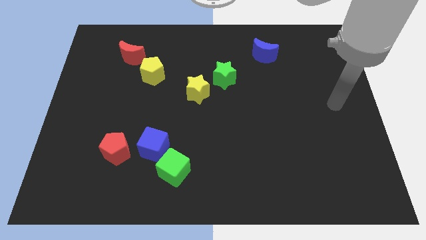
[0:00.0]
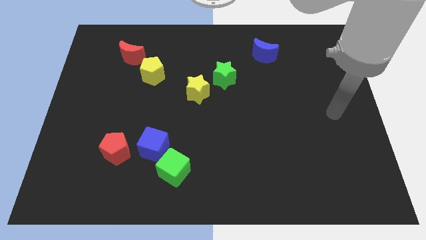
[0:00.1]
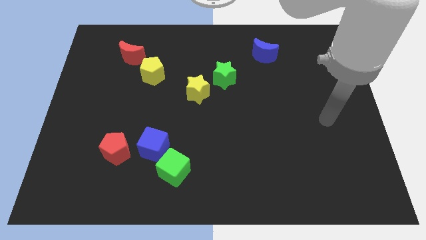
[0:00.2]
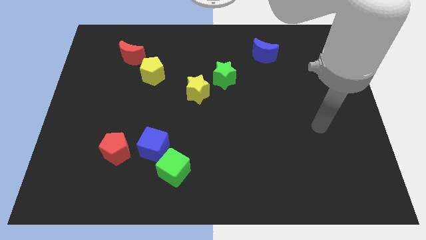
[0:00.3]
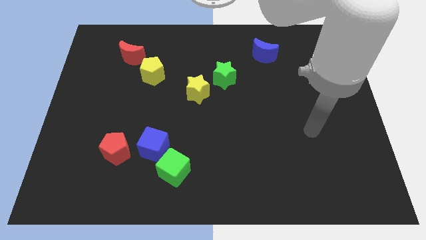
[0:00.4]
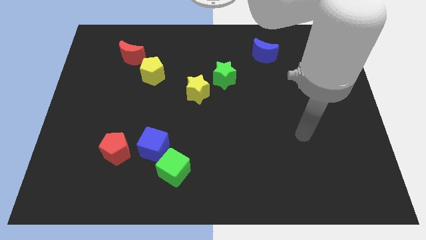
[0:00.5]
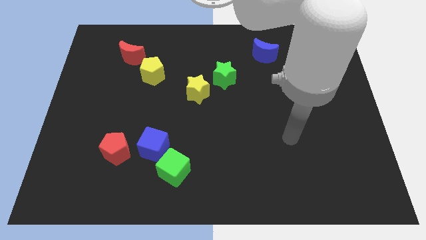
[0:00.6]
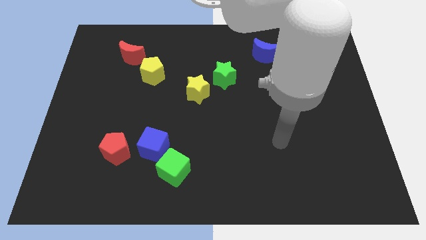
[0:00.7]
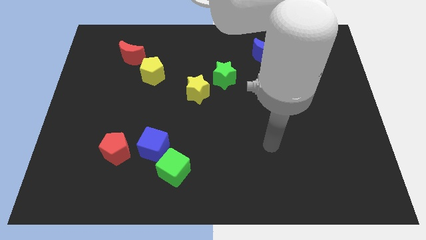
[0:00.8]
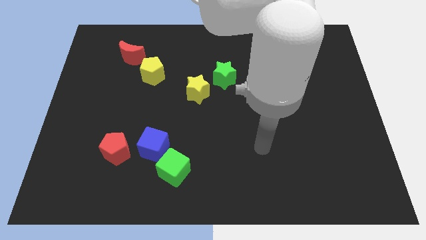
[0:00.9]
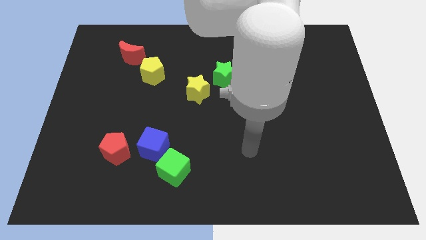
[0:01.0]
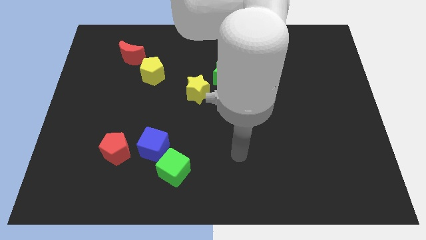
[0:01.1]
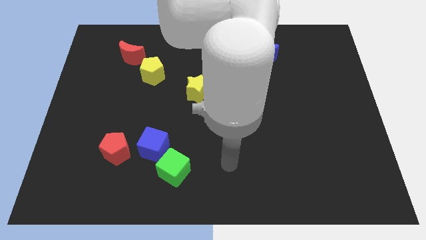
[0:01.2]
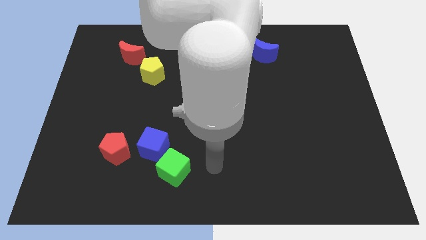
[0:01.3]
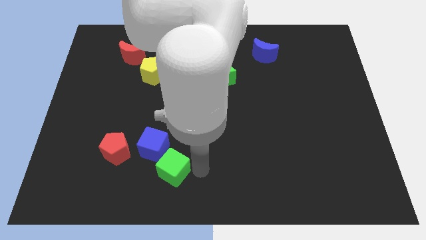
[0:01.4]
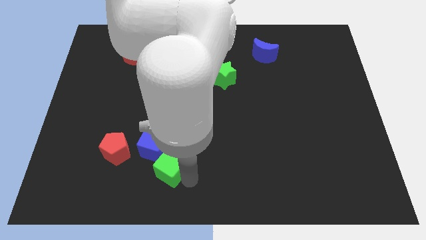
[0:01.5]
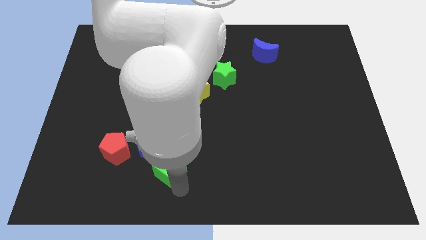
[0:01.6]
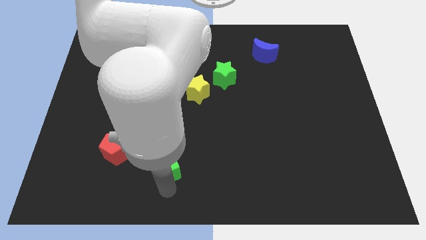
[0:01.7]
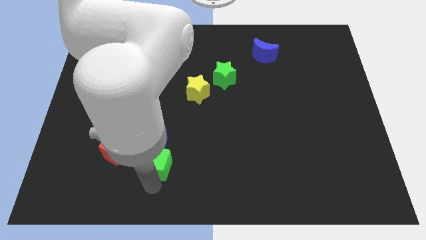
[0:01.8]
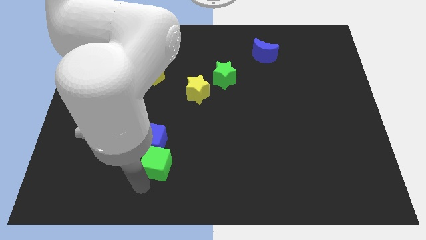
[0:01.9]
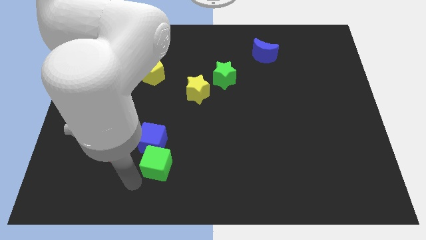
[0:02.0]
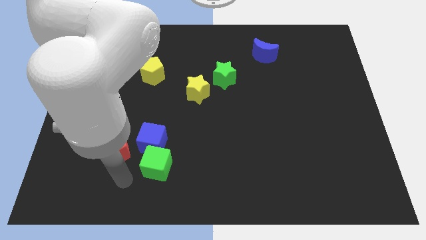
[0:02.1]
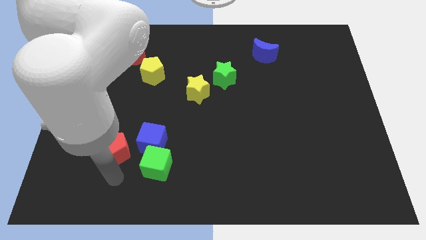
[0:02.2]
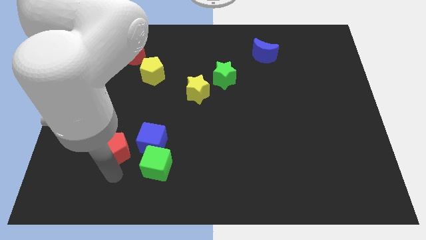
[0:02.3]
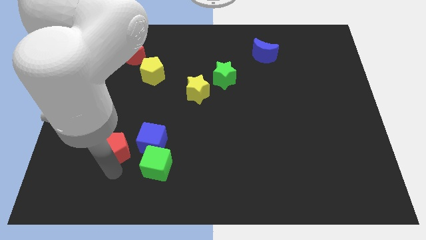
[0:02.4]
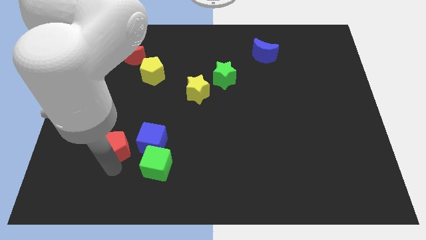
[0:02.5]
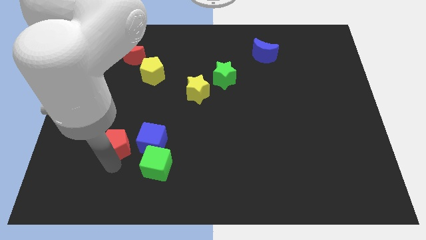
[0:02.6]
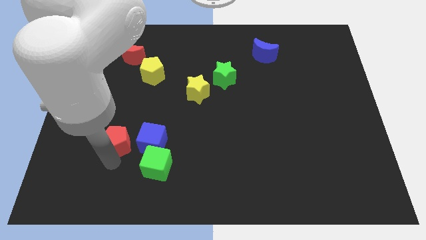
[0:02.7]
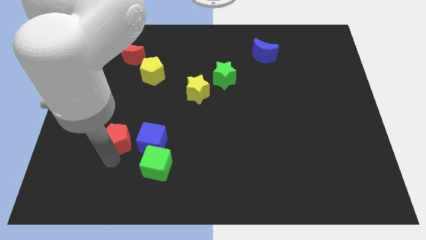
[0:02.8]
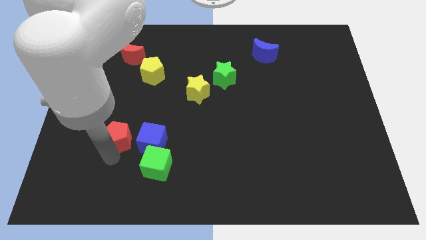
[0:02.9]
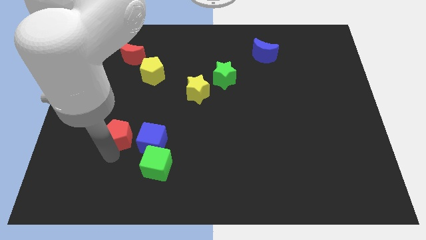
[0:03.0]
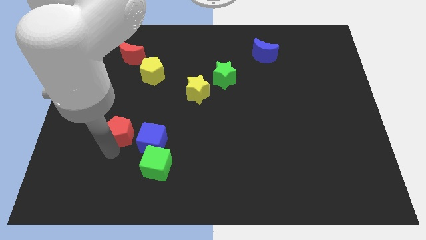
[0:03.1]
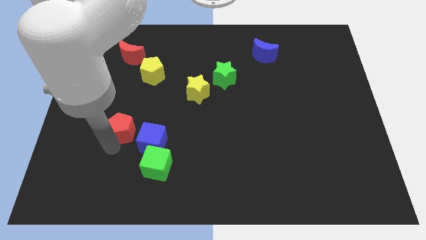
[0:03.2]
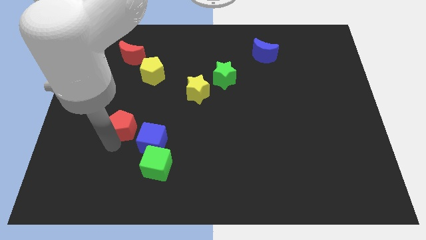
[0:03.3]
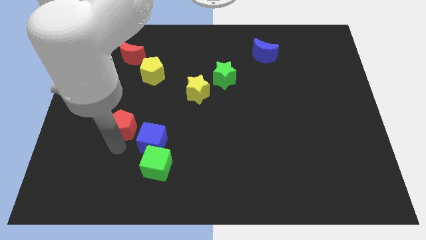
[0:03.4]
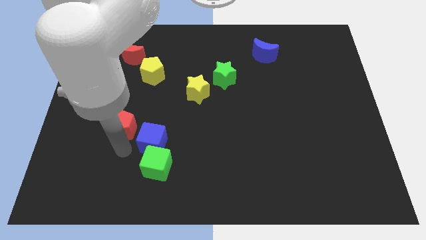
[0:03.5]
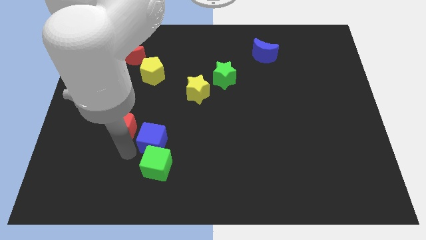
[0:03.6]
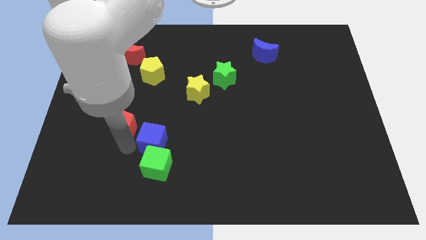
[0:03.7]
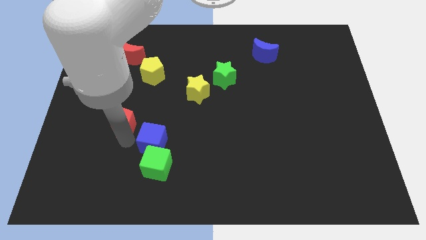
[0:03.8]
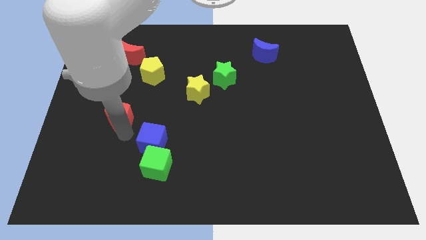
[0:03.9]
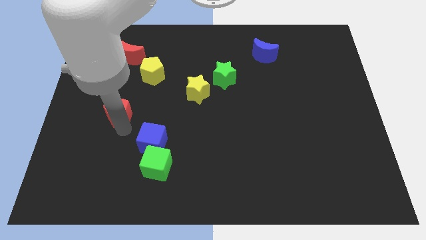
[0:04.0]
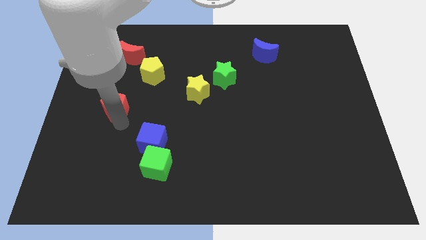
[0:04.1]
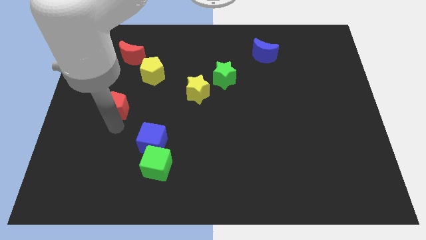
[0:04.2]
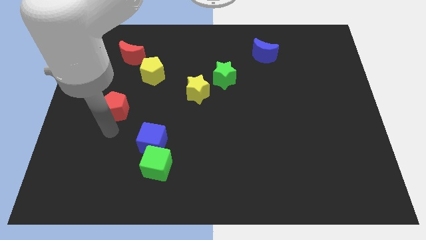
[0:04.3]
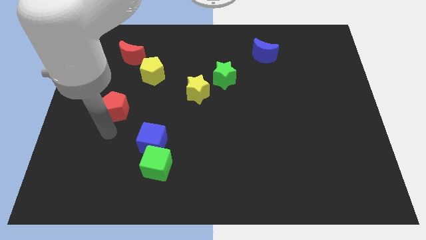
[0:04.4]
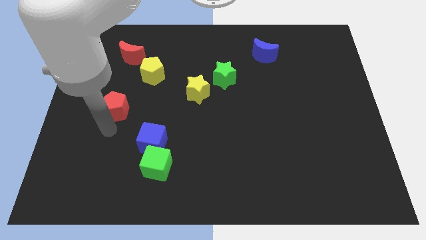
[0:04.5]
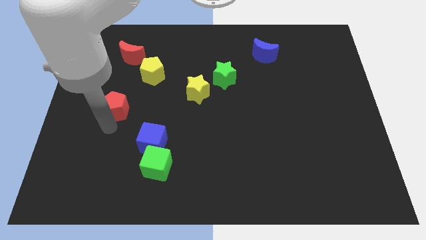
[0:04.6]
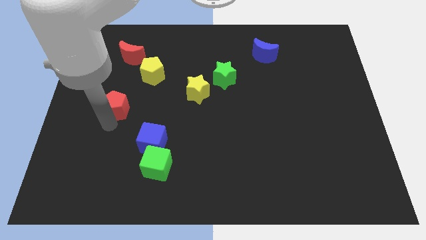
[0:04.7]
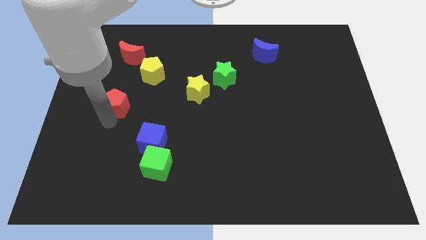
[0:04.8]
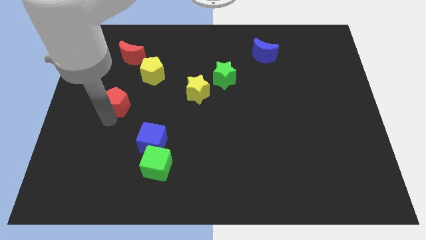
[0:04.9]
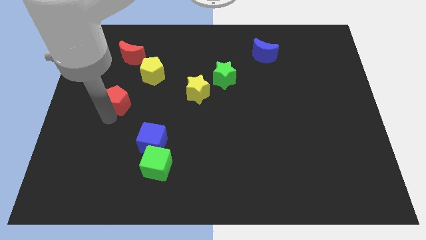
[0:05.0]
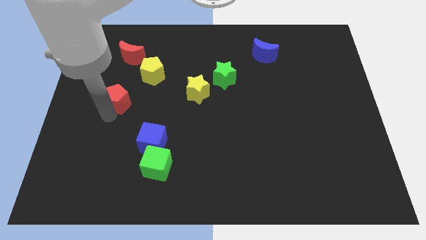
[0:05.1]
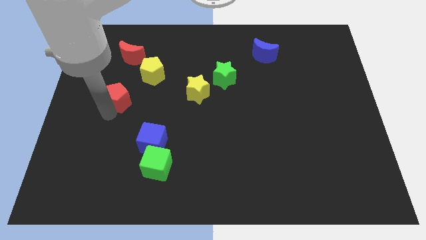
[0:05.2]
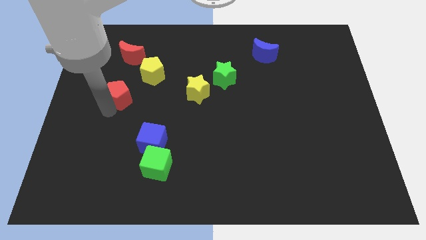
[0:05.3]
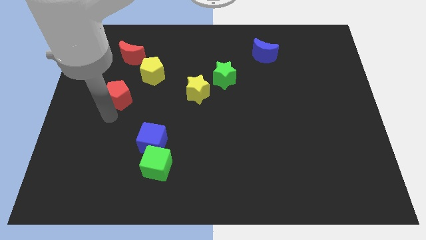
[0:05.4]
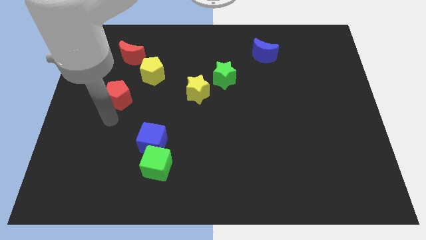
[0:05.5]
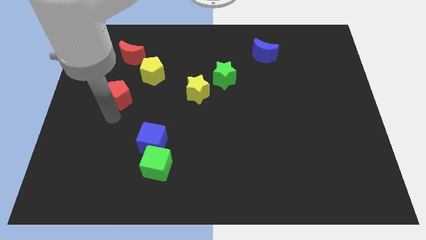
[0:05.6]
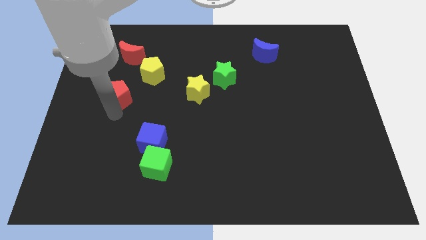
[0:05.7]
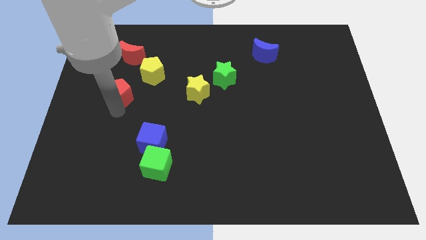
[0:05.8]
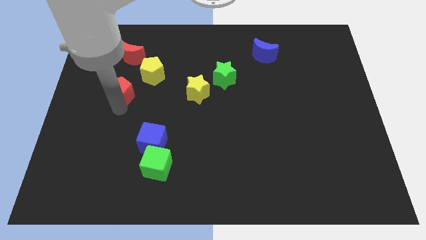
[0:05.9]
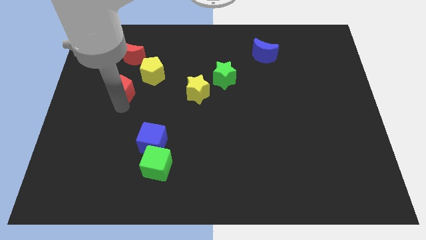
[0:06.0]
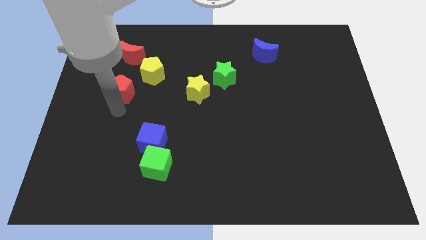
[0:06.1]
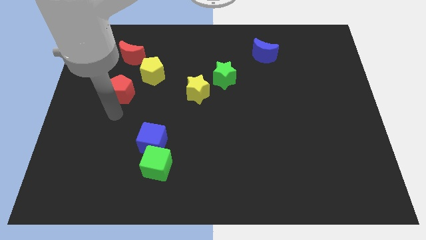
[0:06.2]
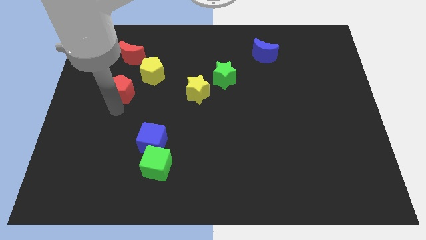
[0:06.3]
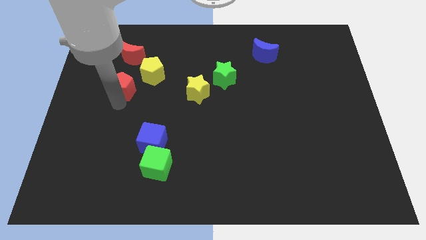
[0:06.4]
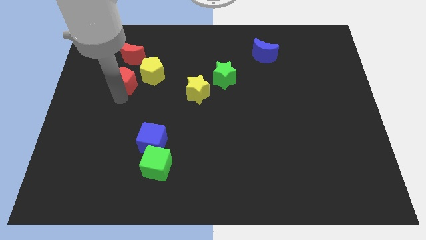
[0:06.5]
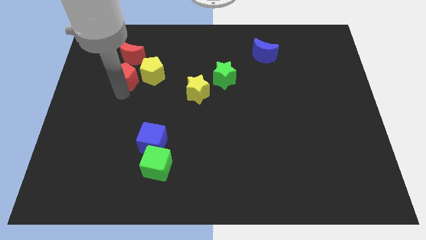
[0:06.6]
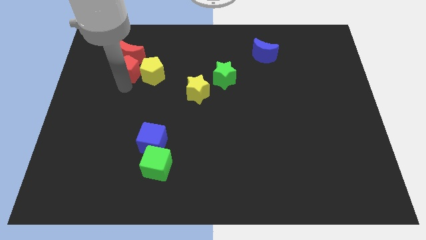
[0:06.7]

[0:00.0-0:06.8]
put the red pentagon next to the red moon

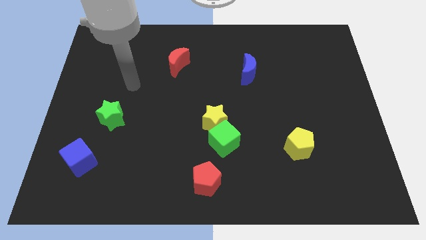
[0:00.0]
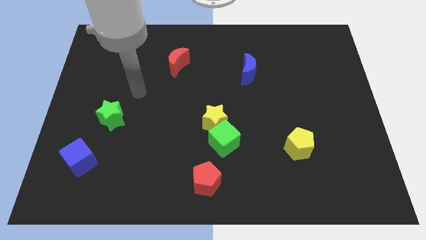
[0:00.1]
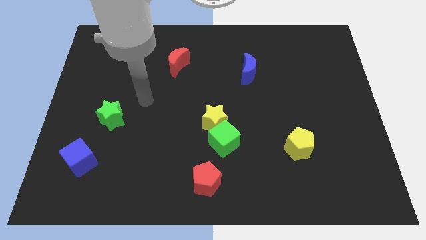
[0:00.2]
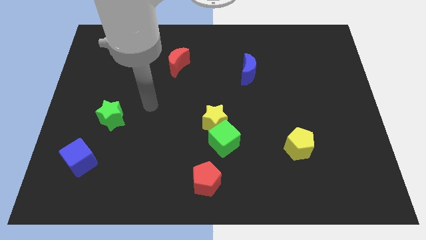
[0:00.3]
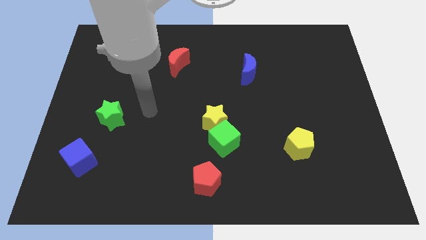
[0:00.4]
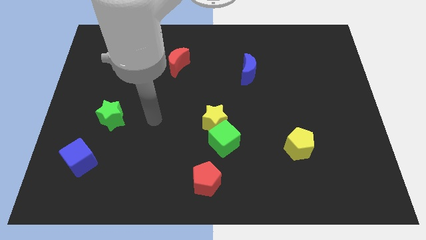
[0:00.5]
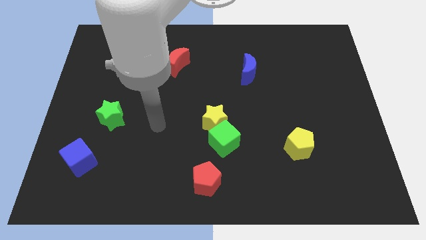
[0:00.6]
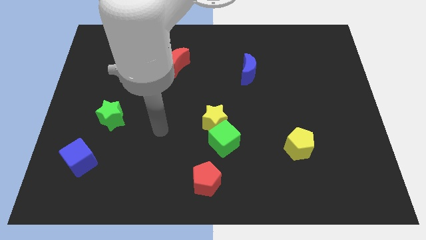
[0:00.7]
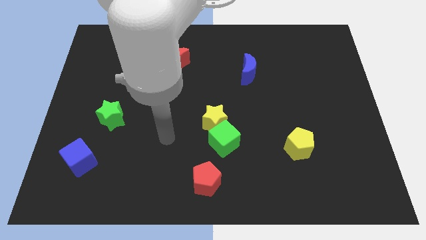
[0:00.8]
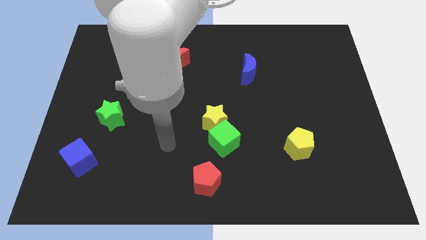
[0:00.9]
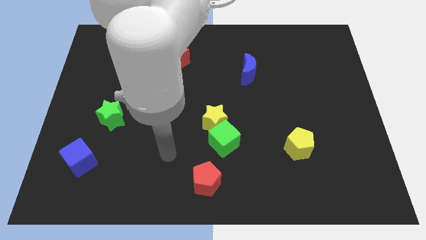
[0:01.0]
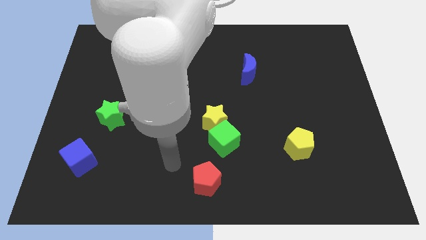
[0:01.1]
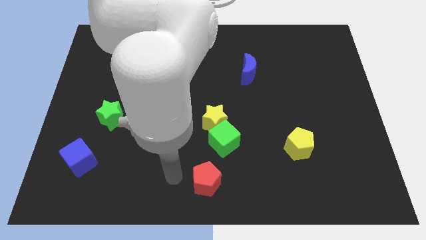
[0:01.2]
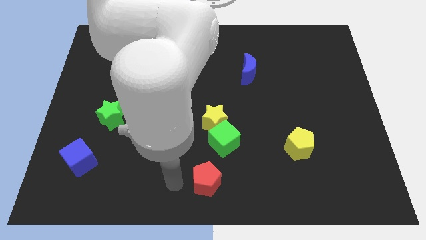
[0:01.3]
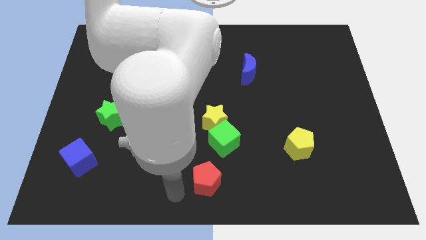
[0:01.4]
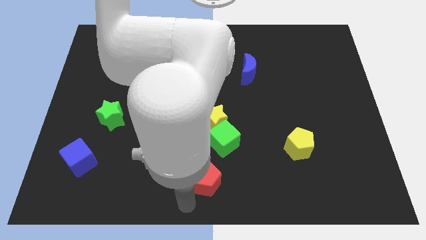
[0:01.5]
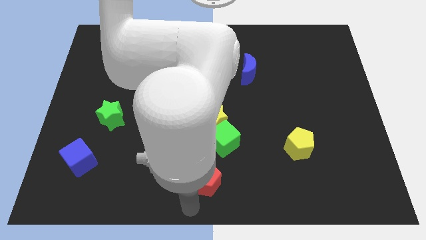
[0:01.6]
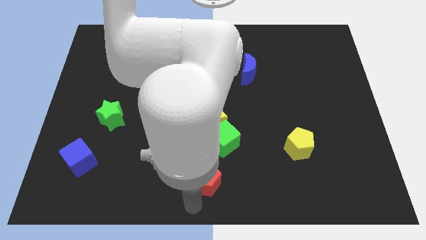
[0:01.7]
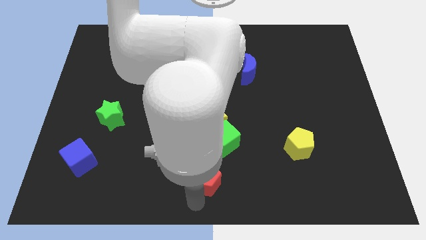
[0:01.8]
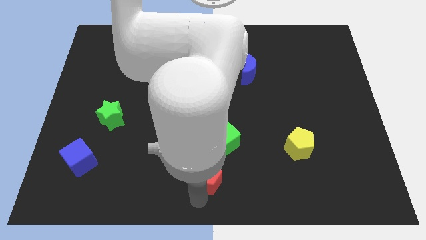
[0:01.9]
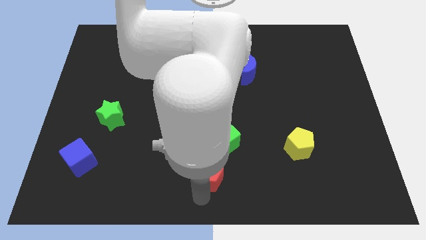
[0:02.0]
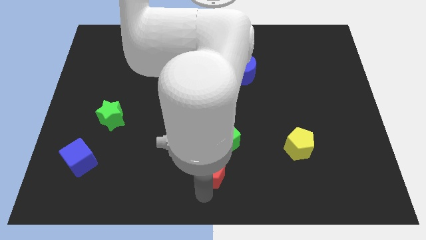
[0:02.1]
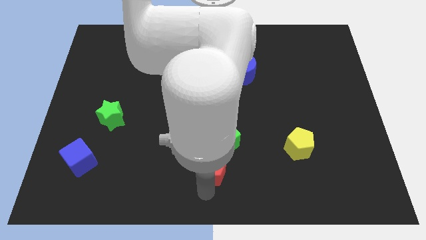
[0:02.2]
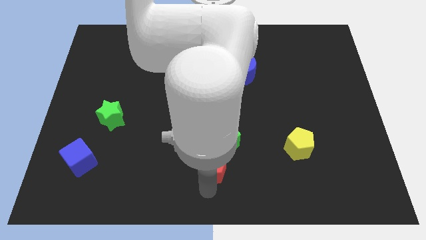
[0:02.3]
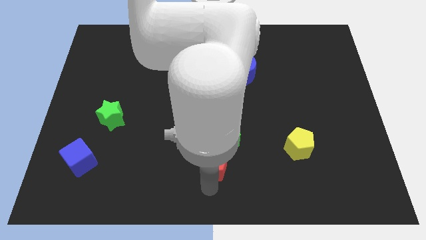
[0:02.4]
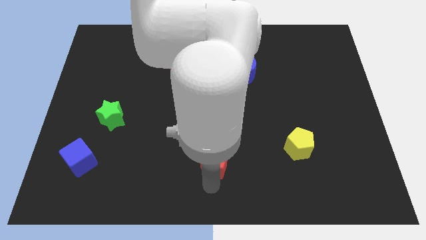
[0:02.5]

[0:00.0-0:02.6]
slide the red pentagon towards the green cube
